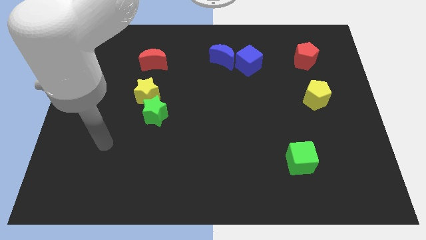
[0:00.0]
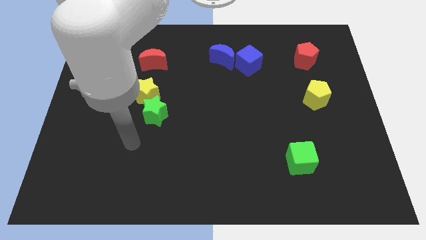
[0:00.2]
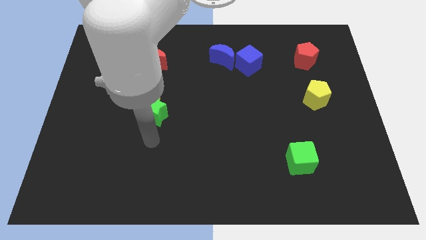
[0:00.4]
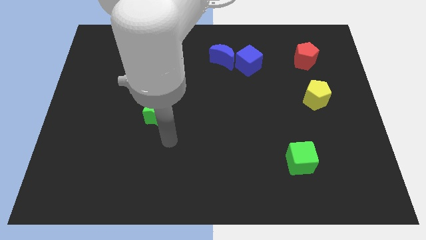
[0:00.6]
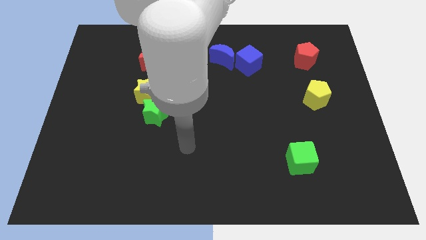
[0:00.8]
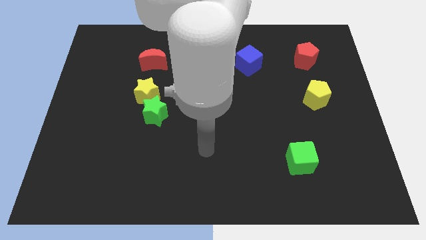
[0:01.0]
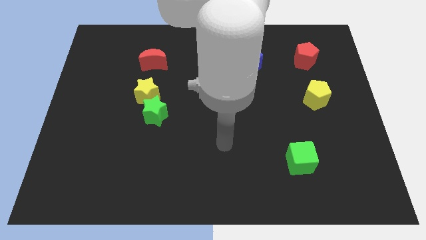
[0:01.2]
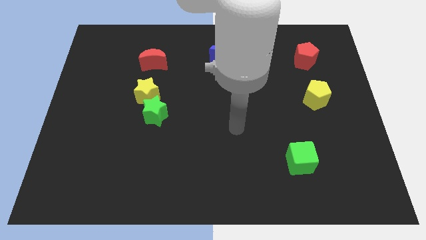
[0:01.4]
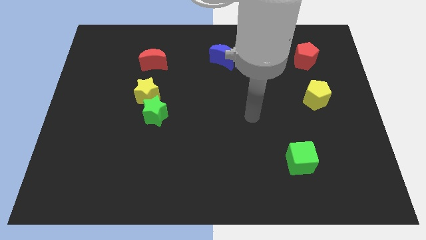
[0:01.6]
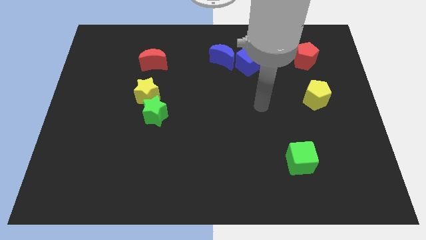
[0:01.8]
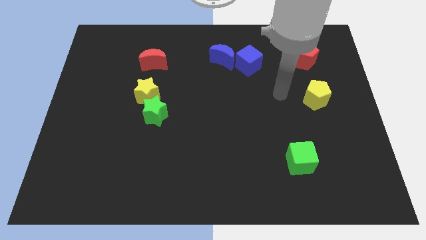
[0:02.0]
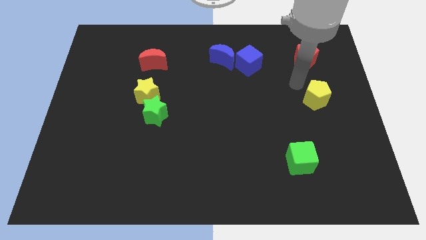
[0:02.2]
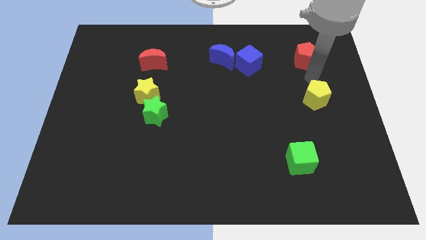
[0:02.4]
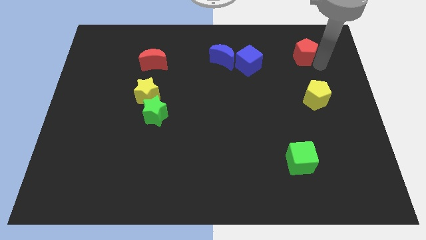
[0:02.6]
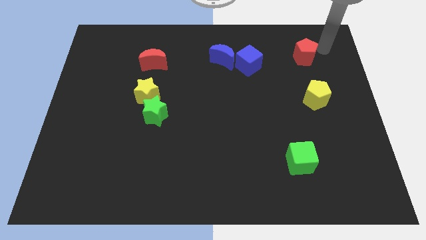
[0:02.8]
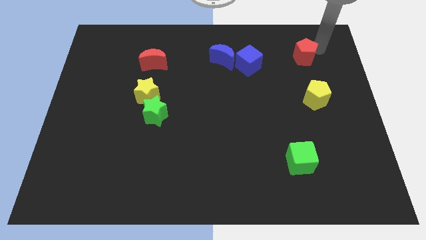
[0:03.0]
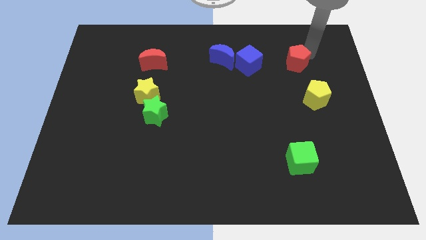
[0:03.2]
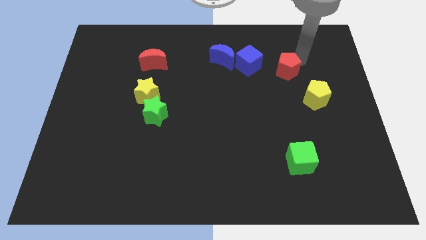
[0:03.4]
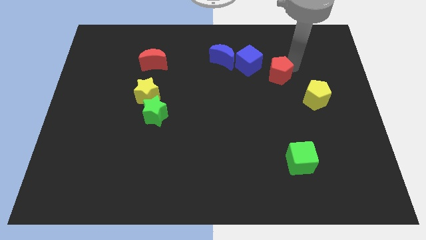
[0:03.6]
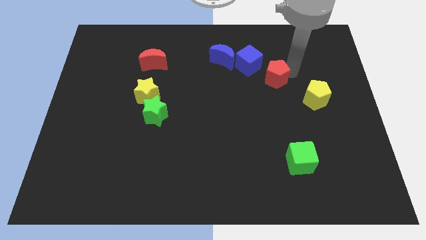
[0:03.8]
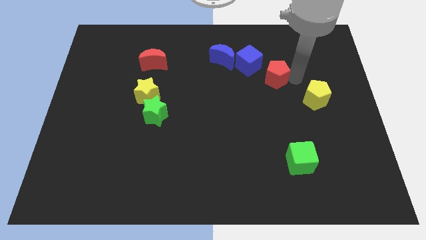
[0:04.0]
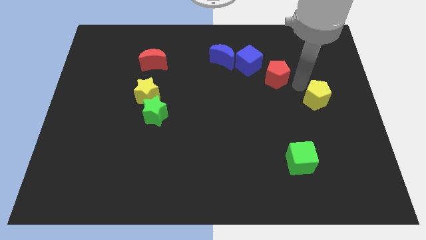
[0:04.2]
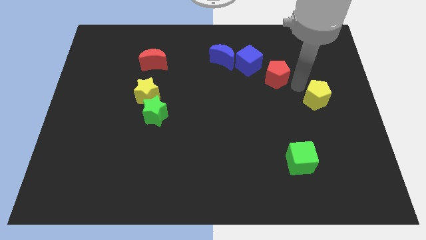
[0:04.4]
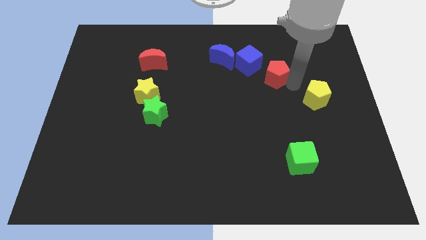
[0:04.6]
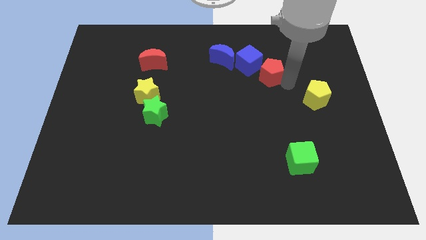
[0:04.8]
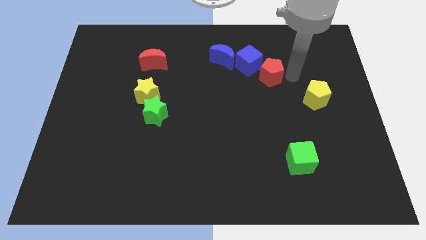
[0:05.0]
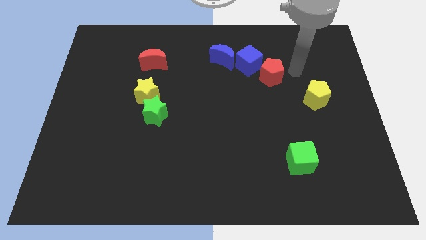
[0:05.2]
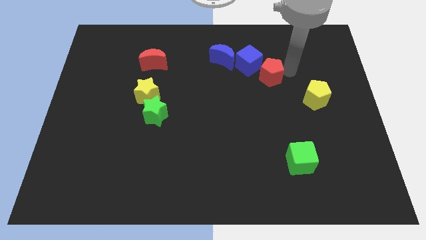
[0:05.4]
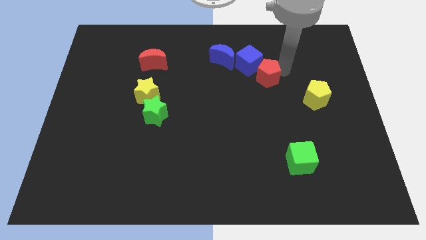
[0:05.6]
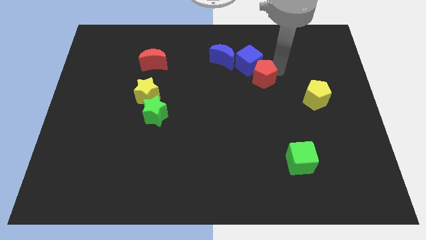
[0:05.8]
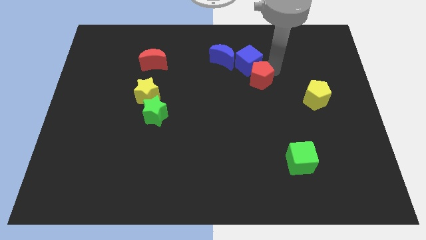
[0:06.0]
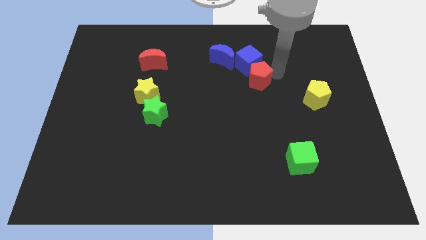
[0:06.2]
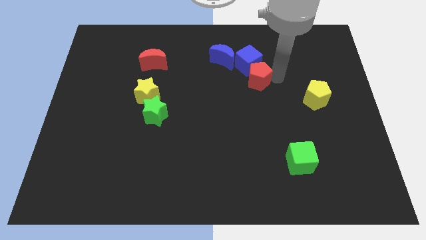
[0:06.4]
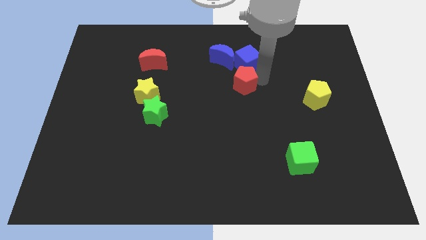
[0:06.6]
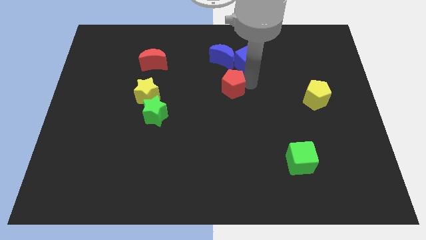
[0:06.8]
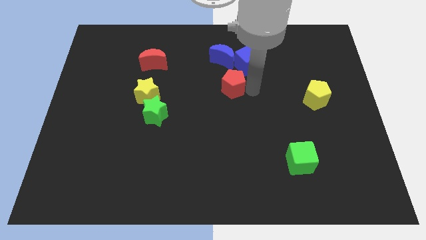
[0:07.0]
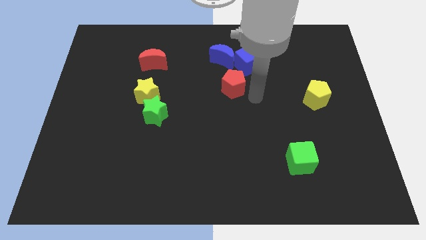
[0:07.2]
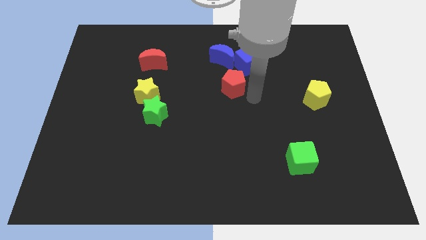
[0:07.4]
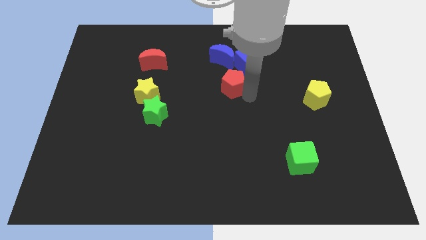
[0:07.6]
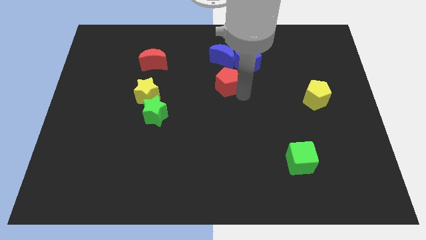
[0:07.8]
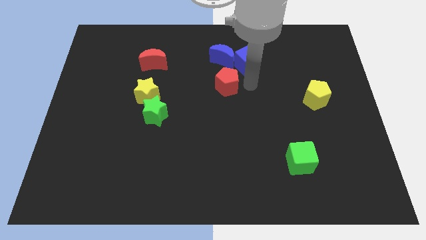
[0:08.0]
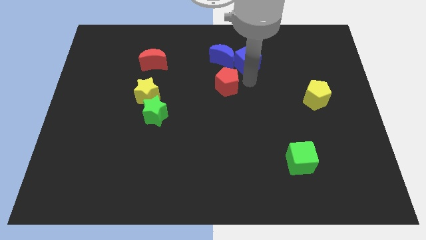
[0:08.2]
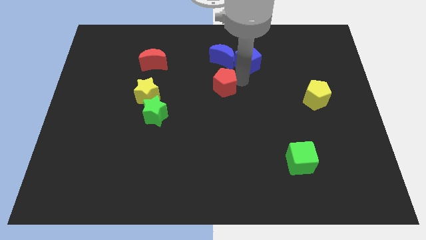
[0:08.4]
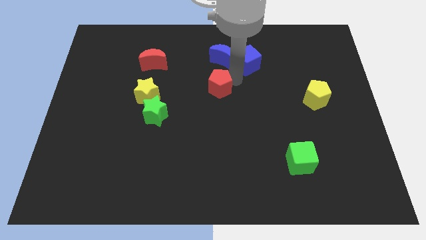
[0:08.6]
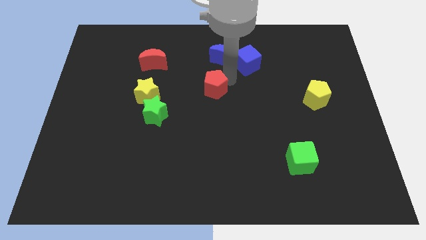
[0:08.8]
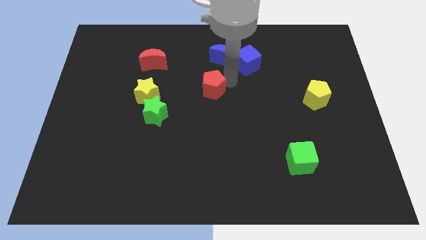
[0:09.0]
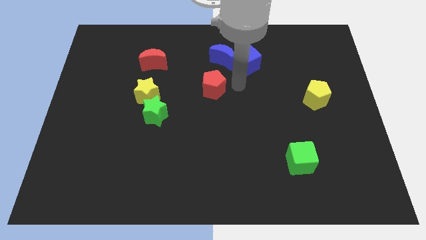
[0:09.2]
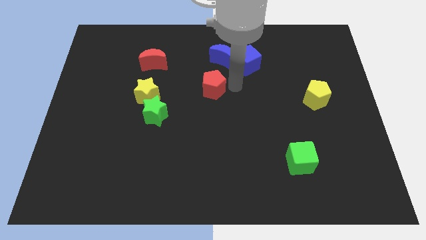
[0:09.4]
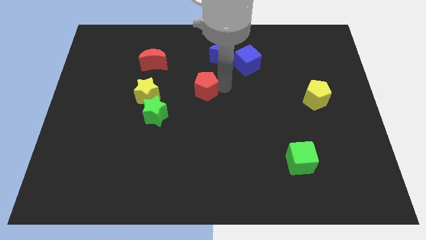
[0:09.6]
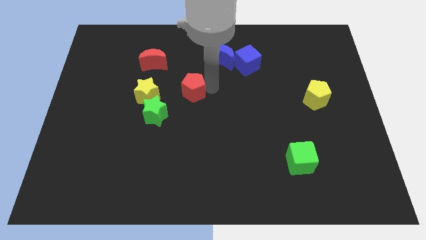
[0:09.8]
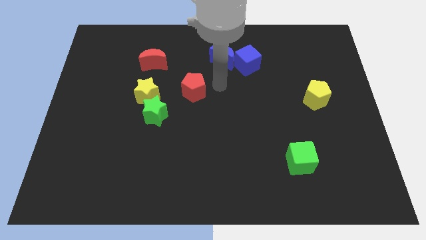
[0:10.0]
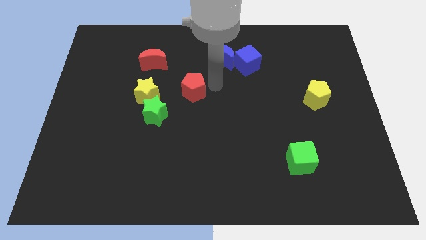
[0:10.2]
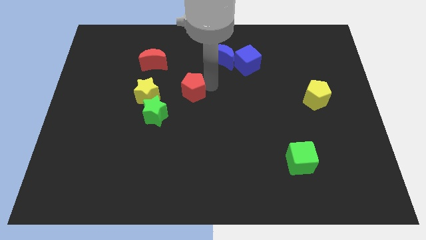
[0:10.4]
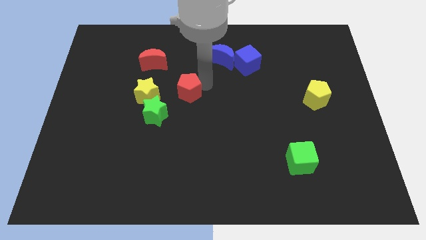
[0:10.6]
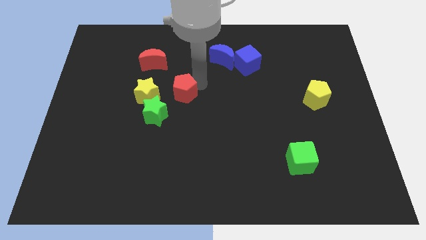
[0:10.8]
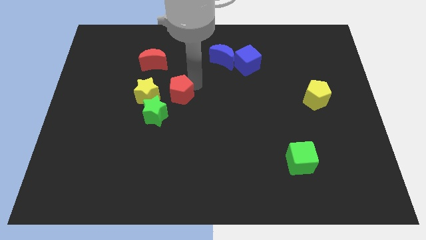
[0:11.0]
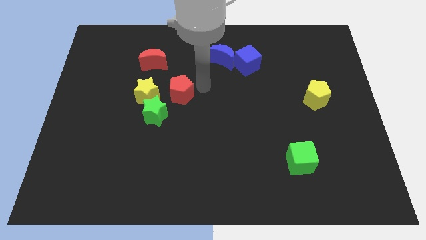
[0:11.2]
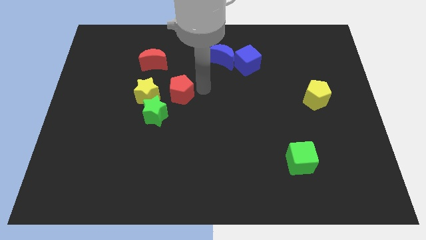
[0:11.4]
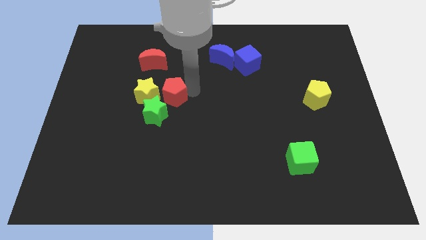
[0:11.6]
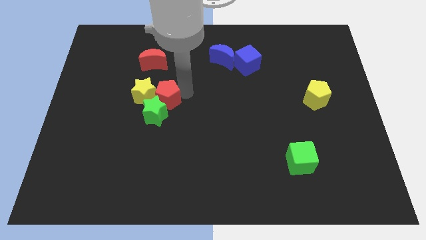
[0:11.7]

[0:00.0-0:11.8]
put the red pentagon towards the yellow star
